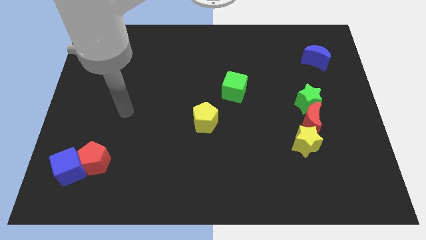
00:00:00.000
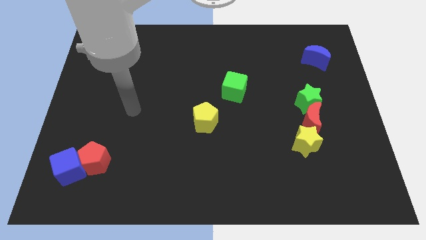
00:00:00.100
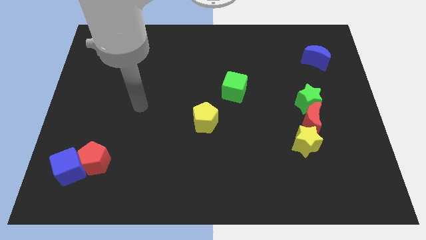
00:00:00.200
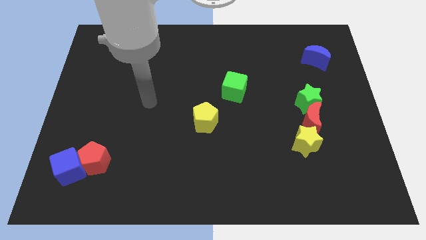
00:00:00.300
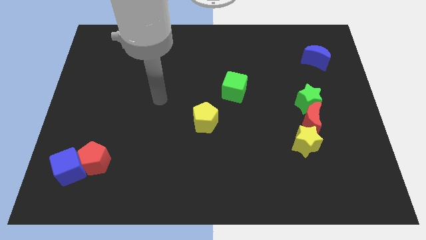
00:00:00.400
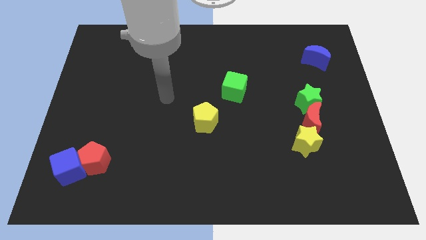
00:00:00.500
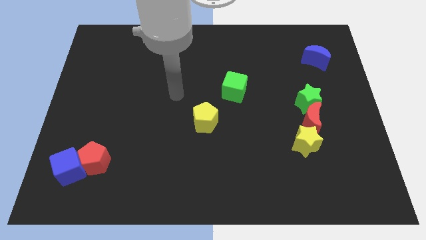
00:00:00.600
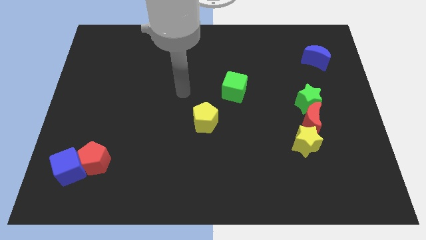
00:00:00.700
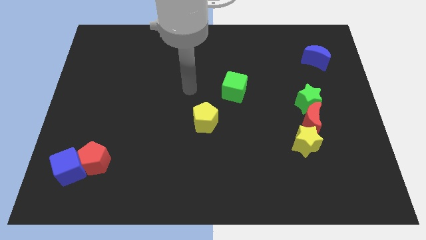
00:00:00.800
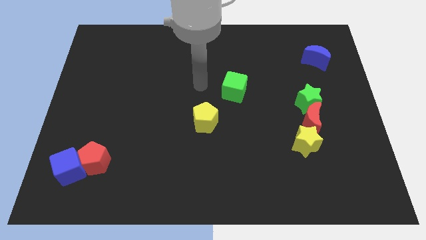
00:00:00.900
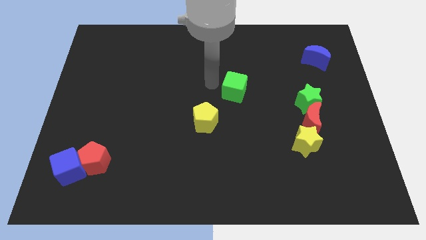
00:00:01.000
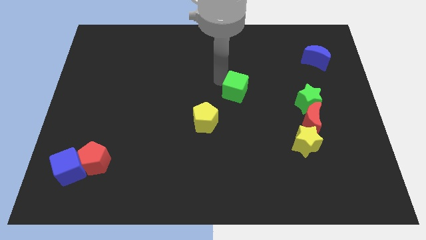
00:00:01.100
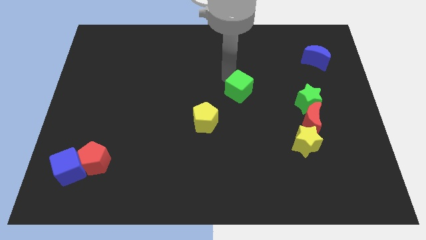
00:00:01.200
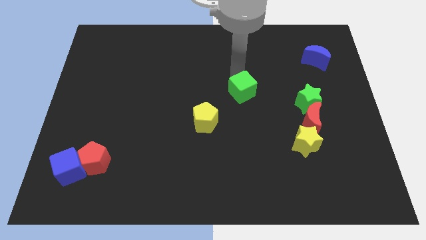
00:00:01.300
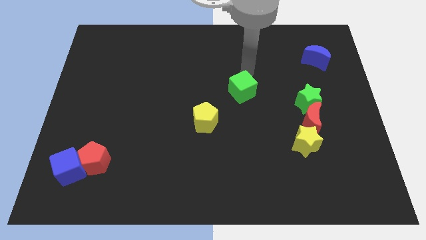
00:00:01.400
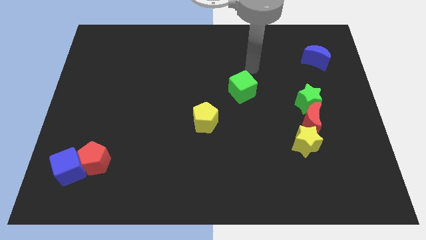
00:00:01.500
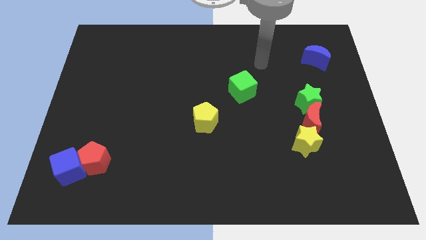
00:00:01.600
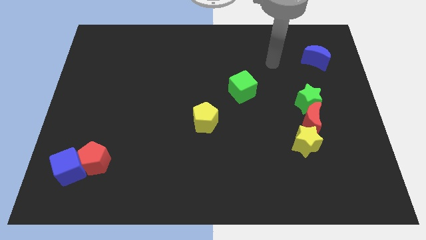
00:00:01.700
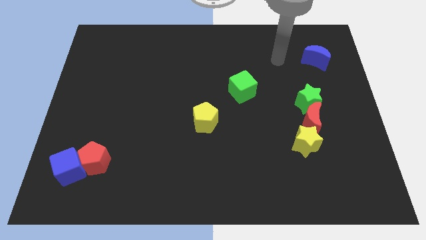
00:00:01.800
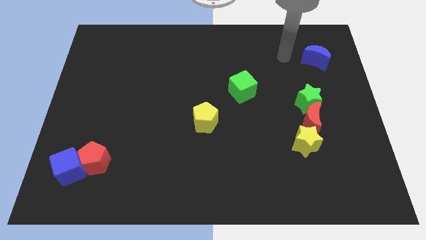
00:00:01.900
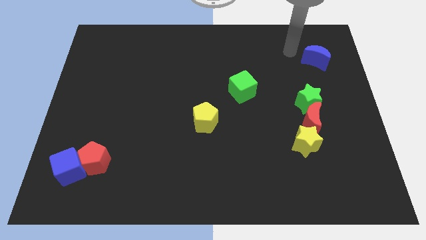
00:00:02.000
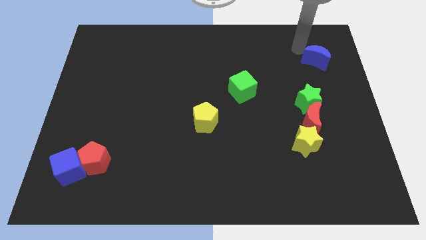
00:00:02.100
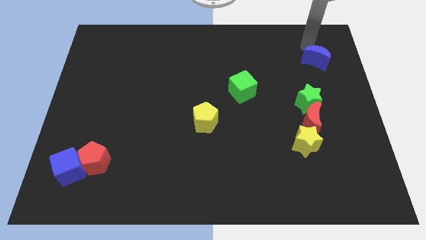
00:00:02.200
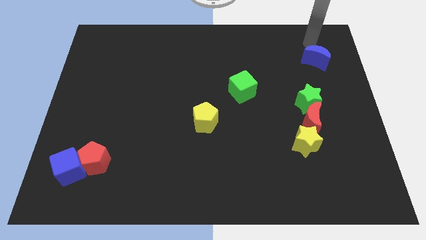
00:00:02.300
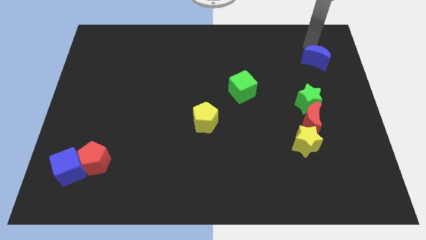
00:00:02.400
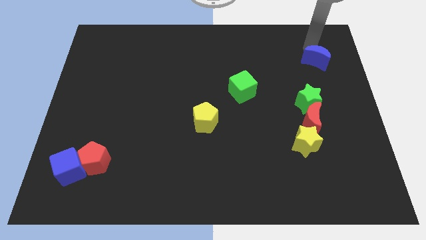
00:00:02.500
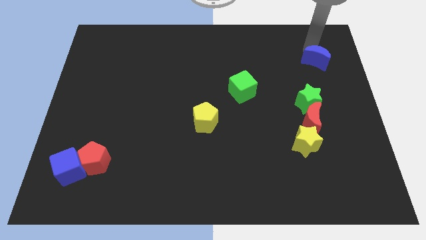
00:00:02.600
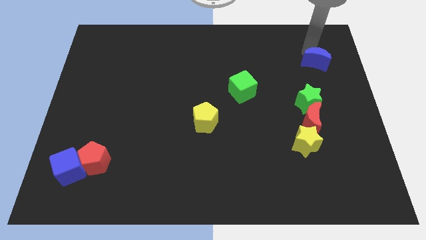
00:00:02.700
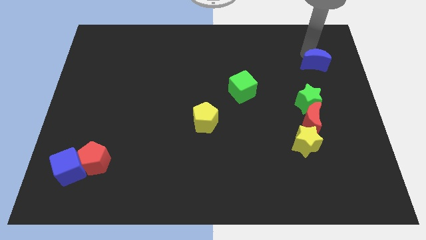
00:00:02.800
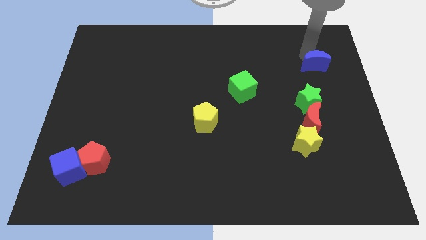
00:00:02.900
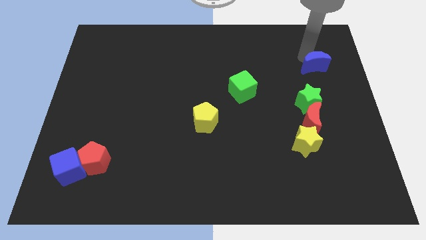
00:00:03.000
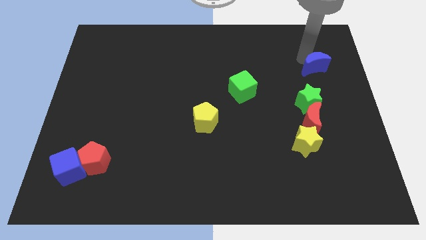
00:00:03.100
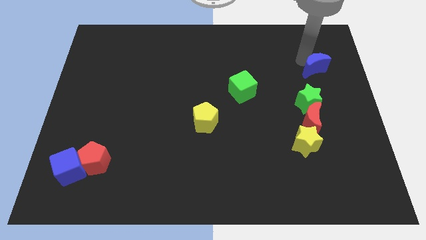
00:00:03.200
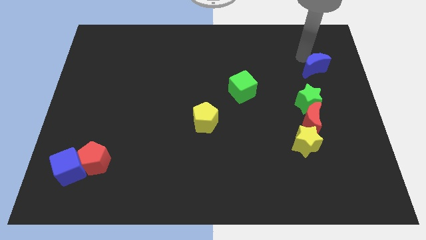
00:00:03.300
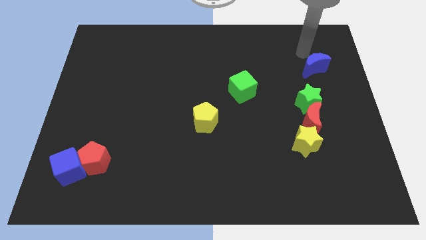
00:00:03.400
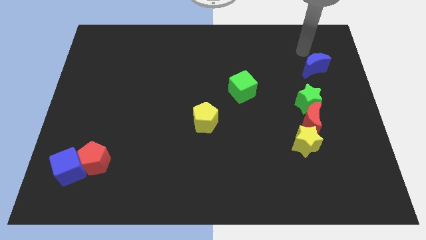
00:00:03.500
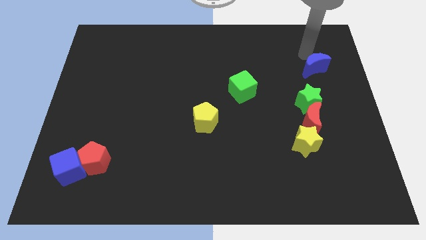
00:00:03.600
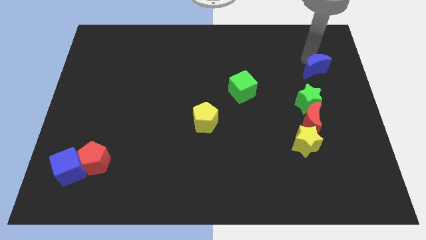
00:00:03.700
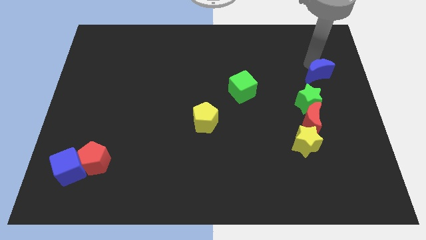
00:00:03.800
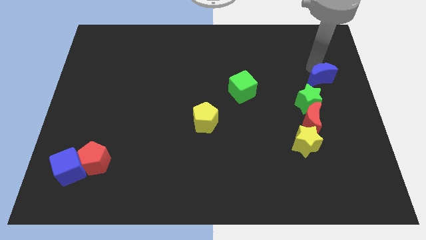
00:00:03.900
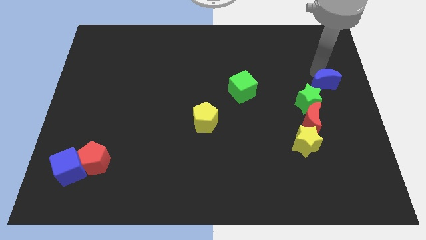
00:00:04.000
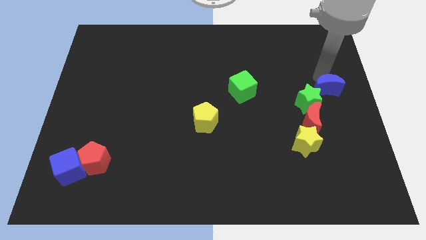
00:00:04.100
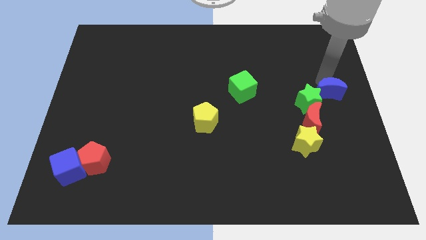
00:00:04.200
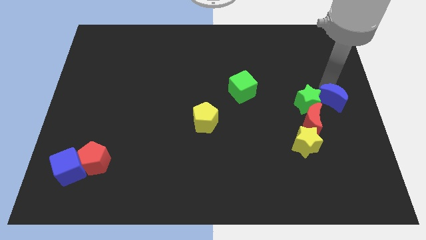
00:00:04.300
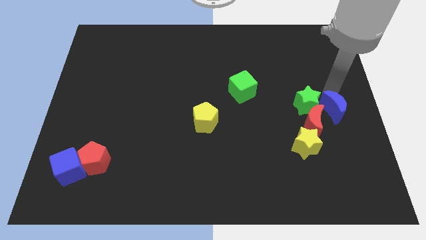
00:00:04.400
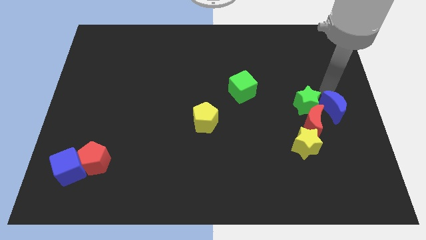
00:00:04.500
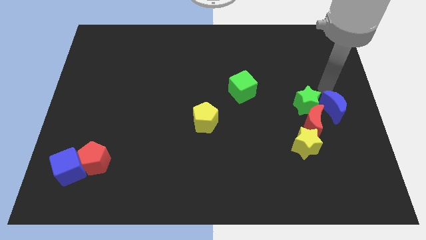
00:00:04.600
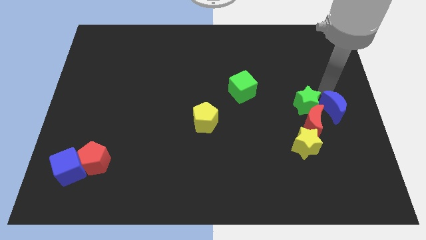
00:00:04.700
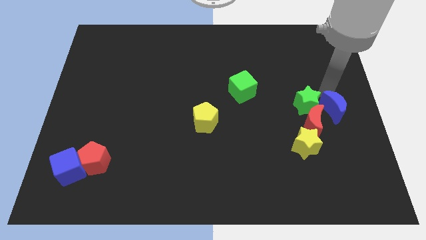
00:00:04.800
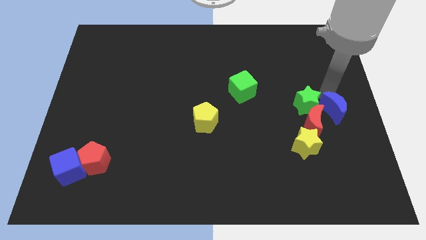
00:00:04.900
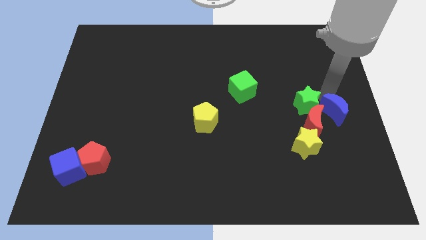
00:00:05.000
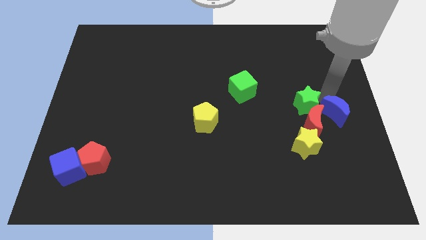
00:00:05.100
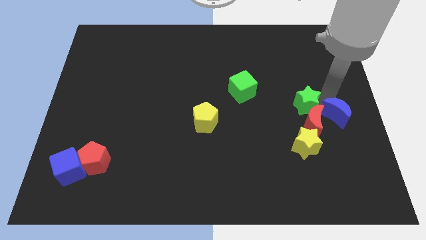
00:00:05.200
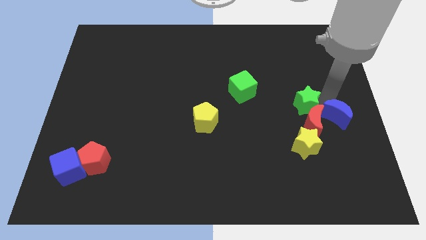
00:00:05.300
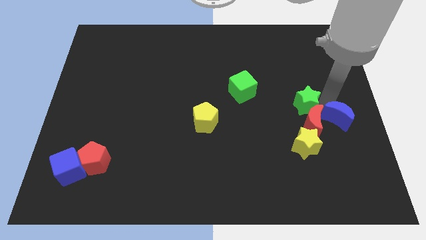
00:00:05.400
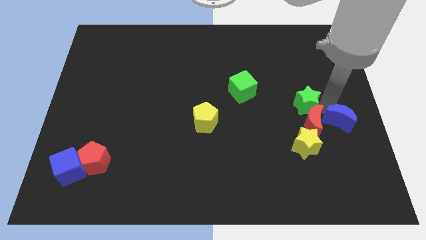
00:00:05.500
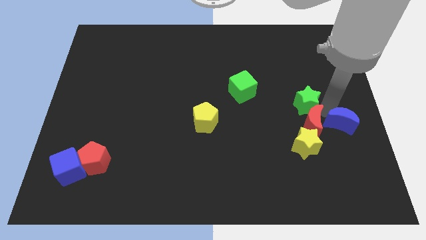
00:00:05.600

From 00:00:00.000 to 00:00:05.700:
push the blue moon down

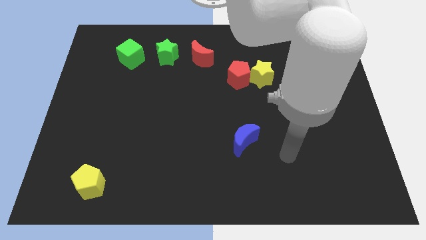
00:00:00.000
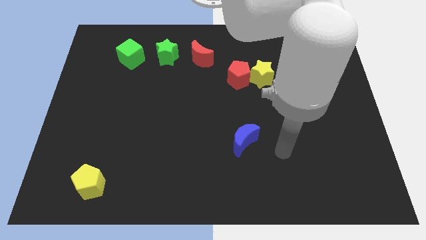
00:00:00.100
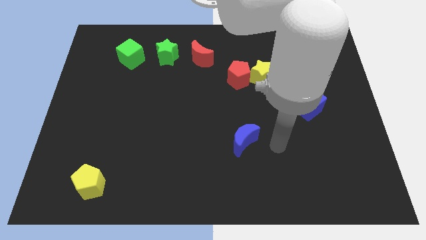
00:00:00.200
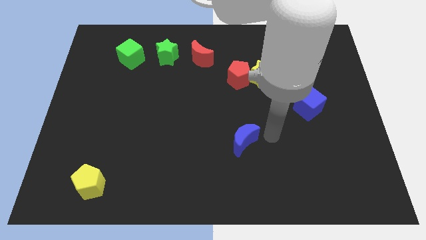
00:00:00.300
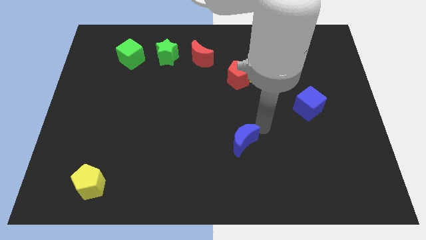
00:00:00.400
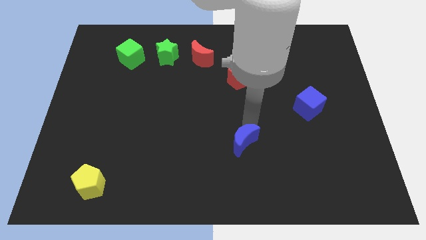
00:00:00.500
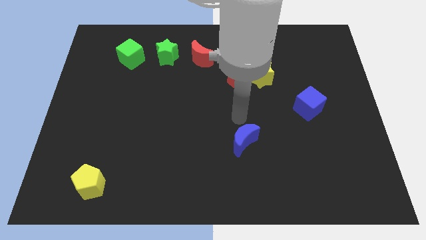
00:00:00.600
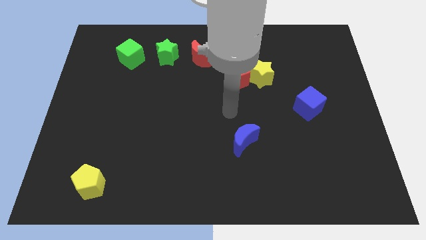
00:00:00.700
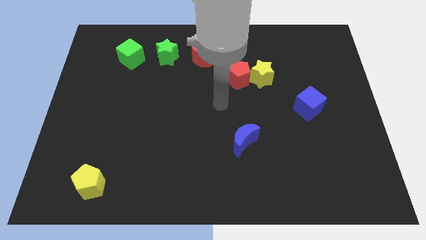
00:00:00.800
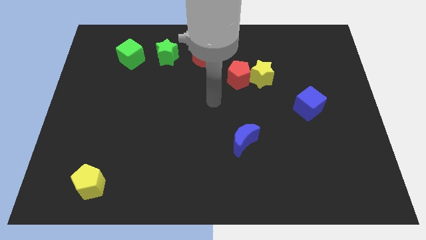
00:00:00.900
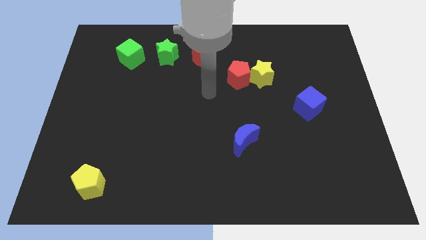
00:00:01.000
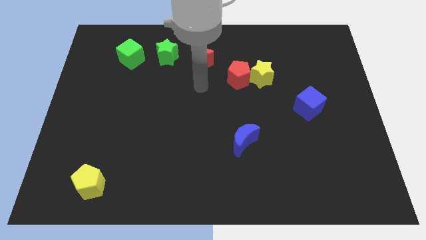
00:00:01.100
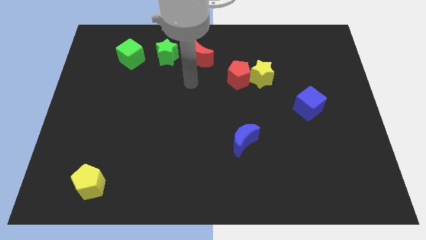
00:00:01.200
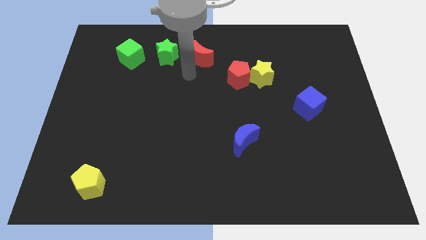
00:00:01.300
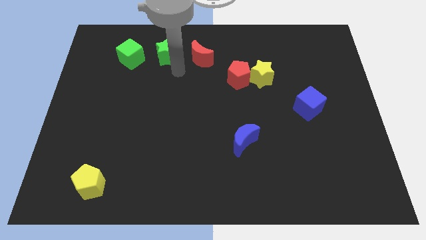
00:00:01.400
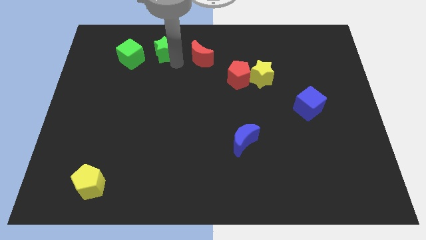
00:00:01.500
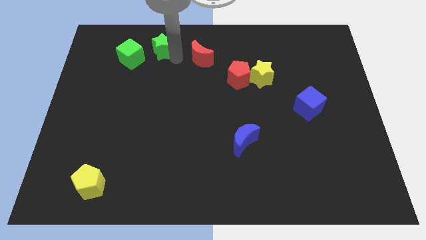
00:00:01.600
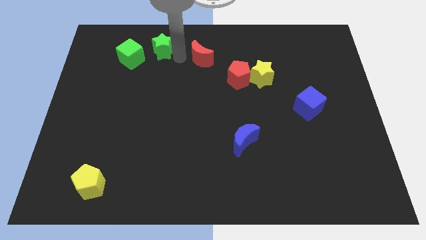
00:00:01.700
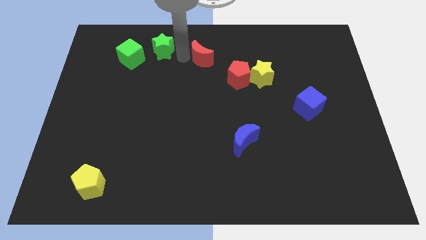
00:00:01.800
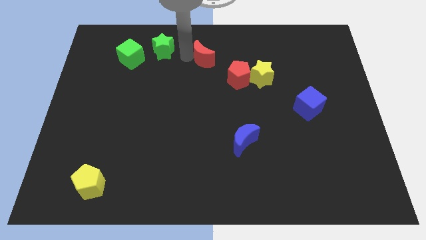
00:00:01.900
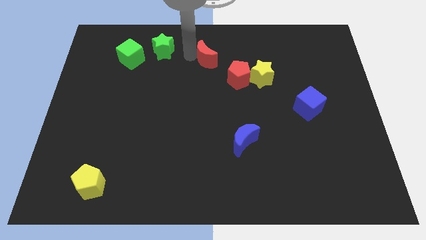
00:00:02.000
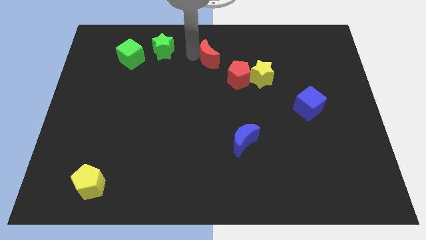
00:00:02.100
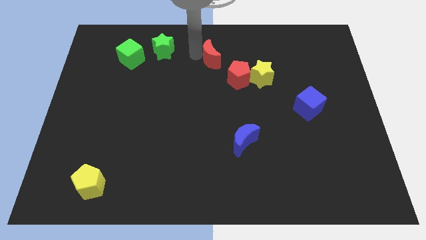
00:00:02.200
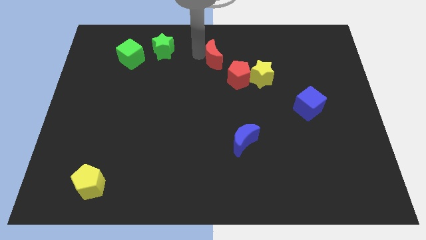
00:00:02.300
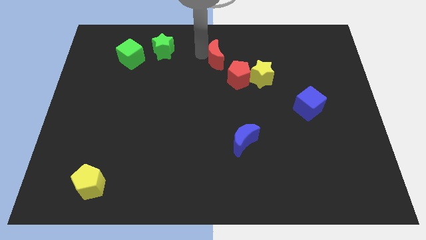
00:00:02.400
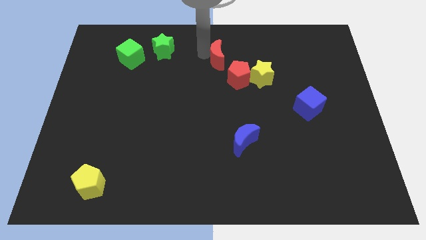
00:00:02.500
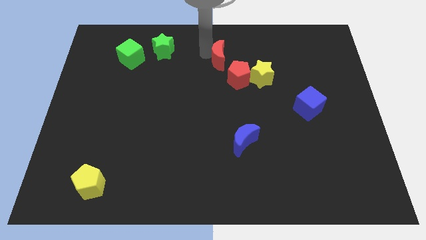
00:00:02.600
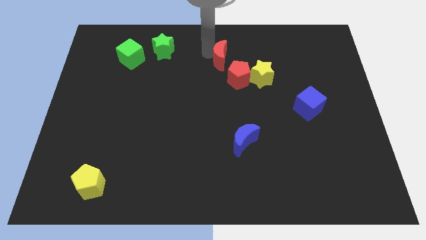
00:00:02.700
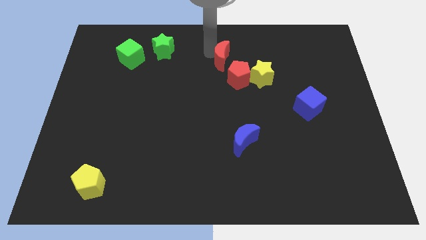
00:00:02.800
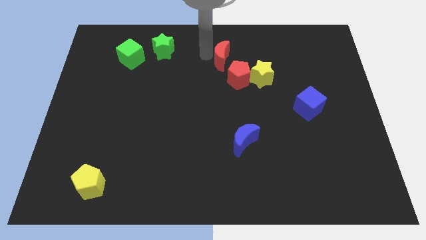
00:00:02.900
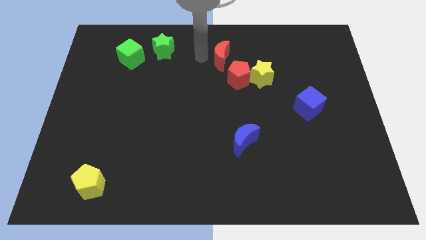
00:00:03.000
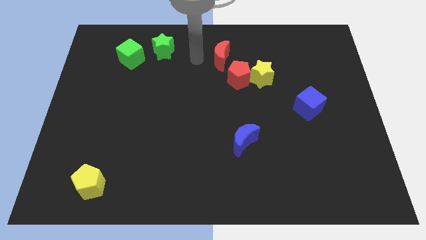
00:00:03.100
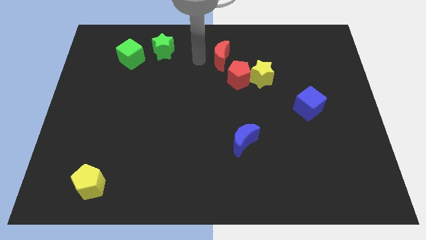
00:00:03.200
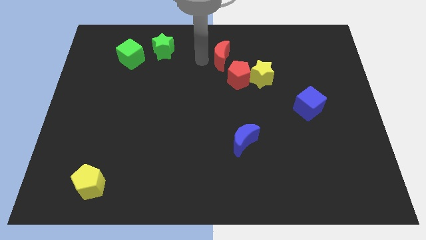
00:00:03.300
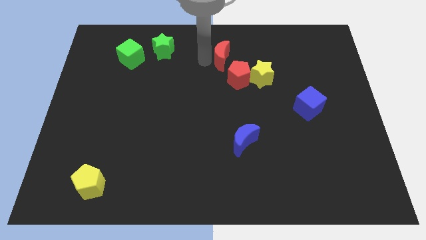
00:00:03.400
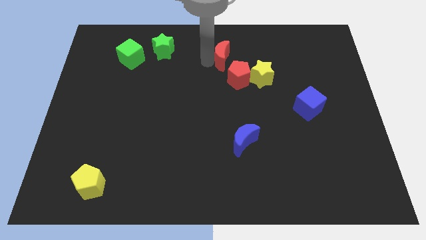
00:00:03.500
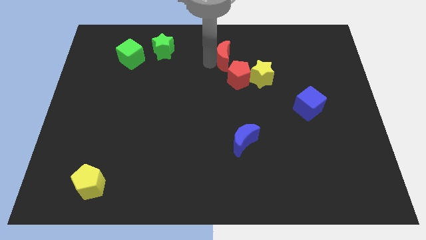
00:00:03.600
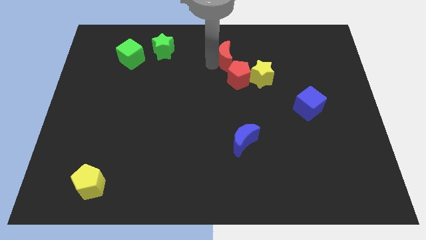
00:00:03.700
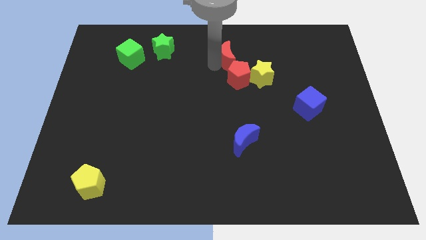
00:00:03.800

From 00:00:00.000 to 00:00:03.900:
move the red moon to the right a bit
